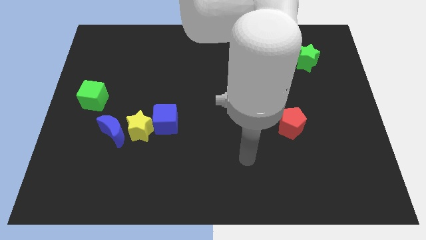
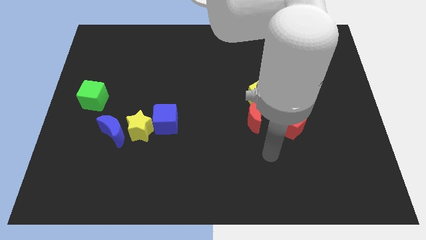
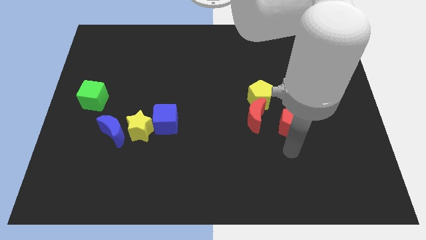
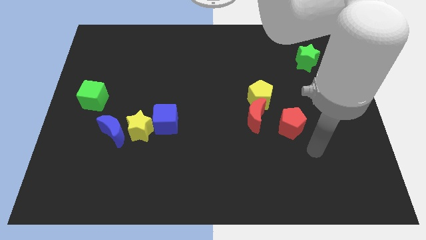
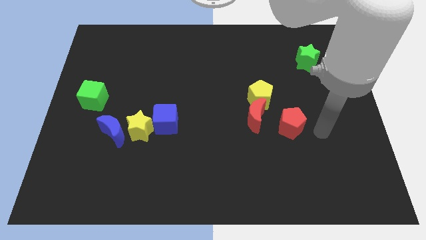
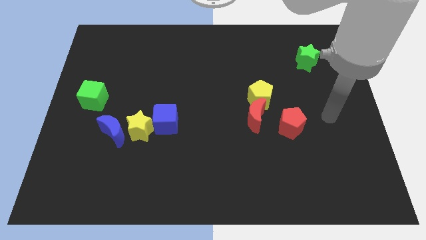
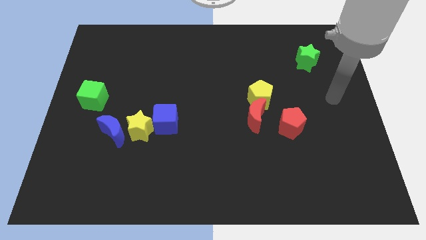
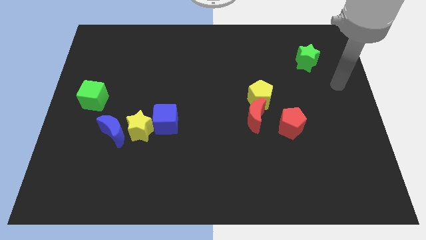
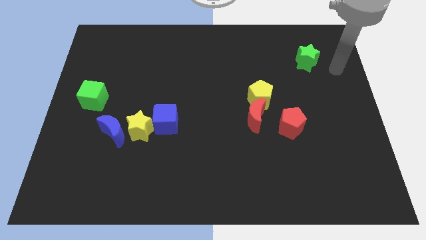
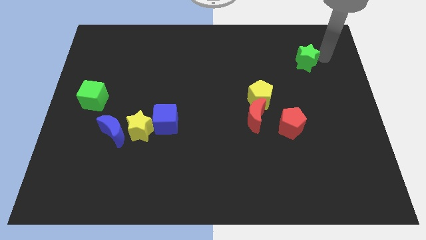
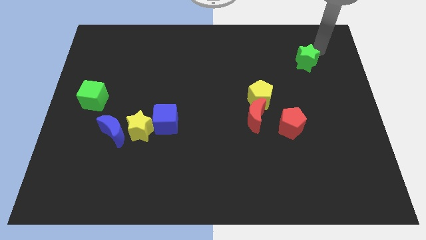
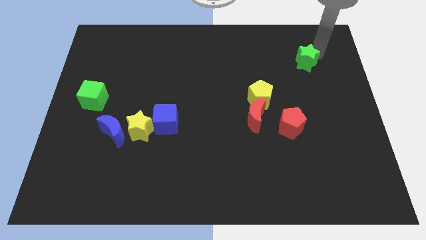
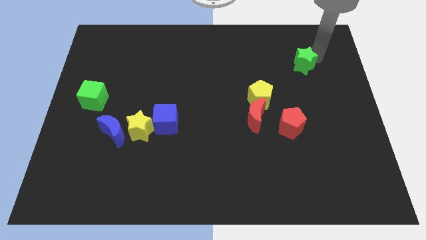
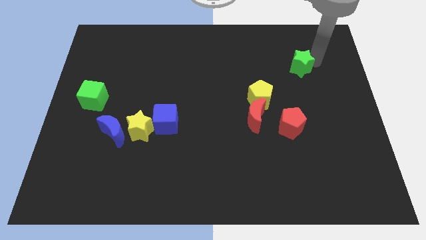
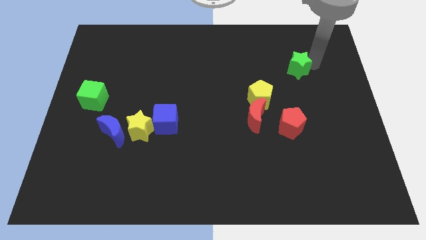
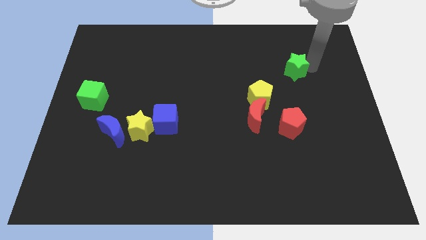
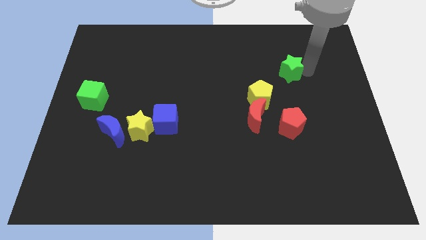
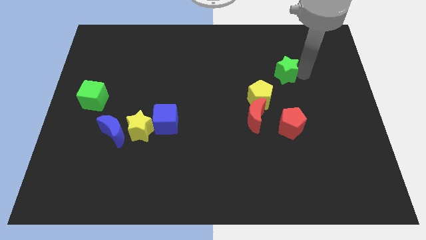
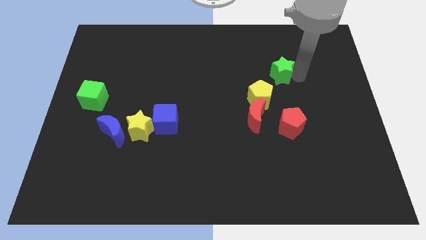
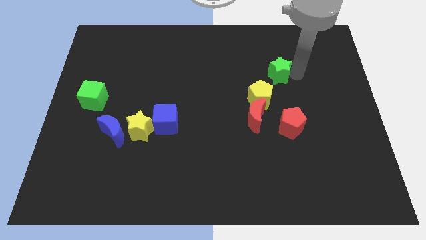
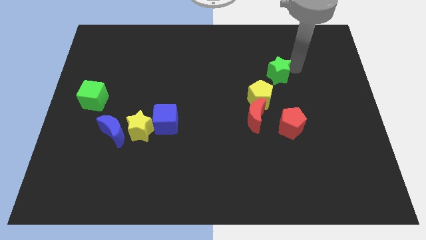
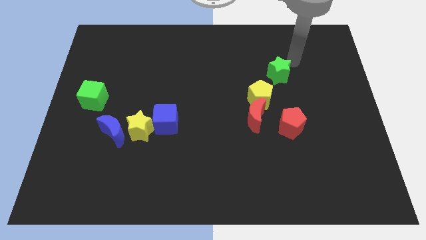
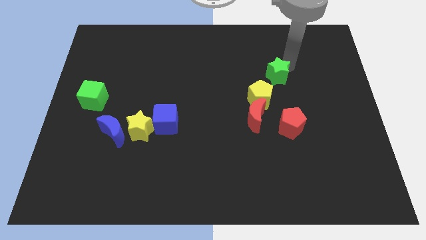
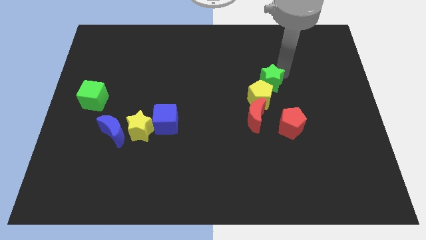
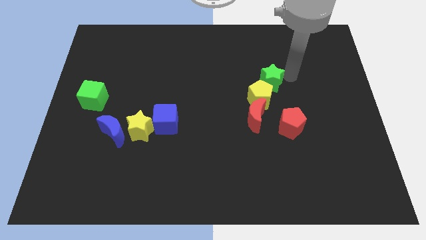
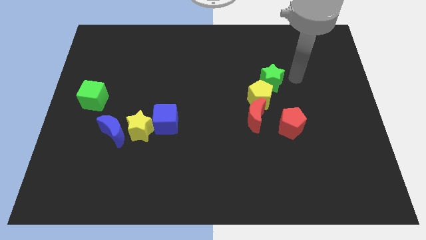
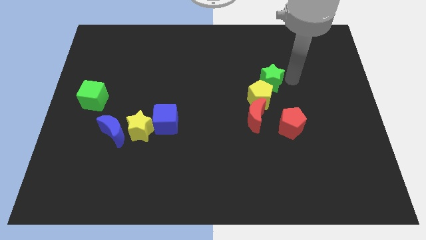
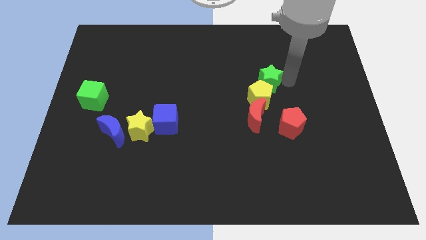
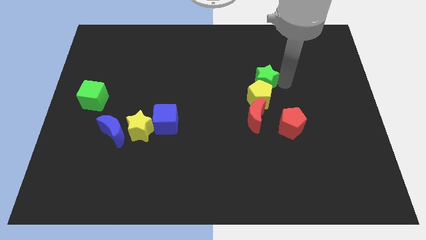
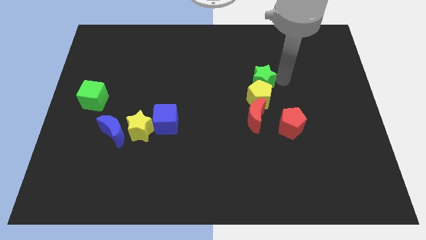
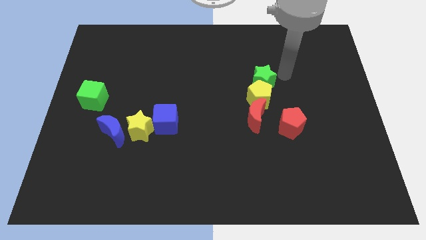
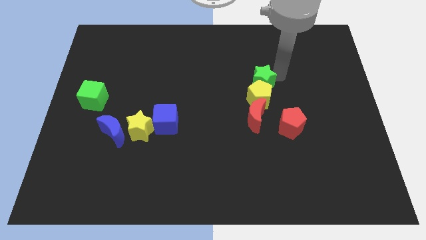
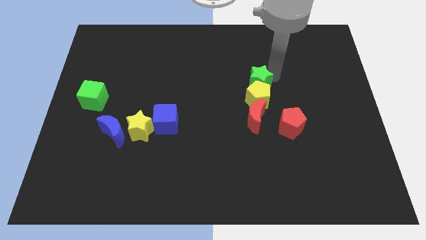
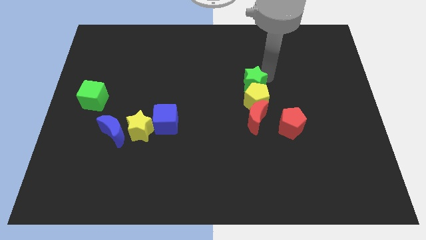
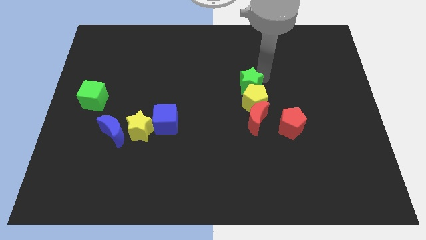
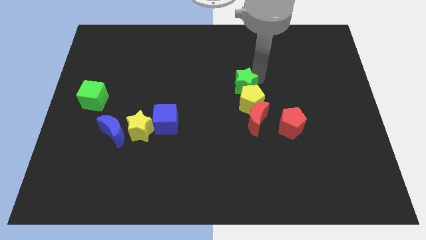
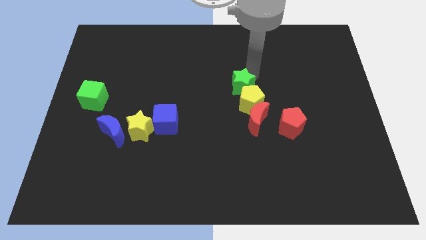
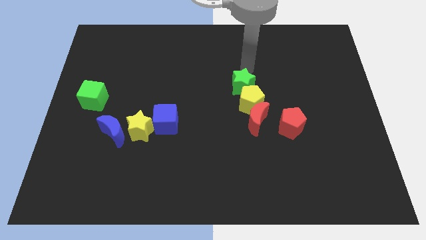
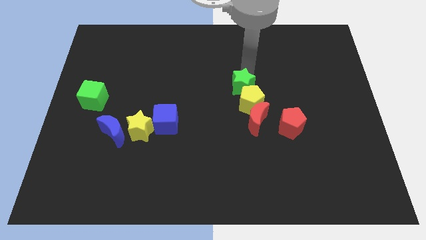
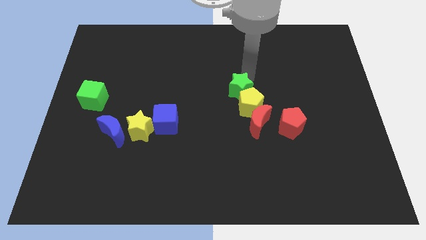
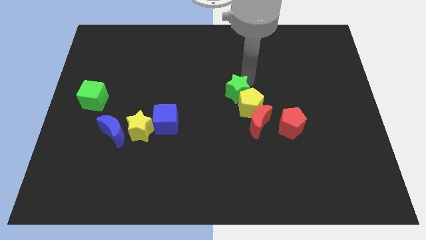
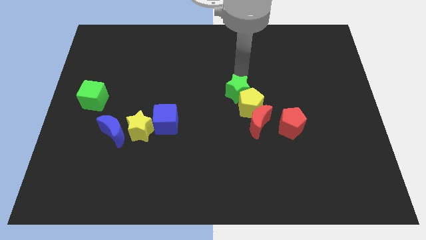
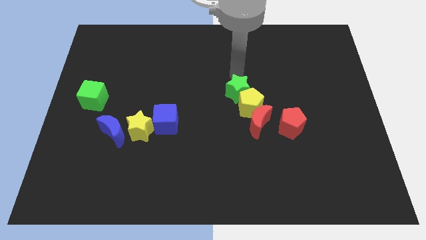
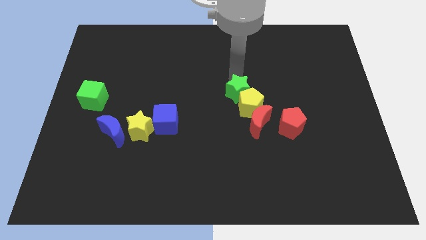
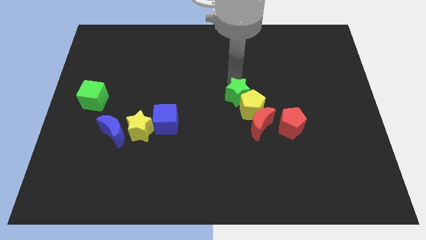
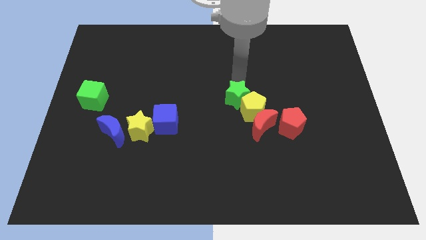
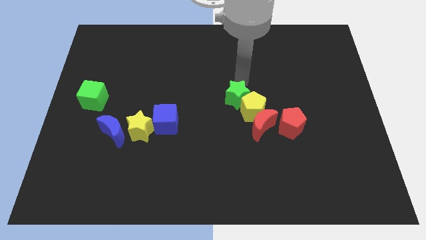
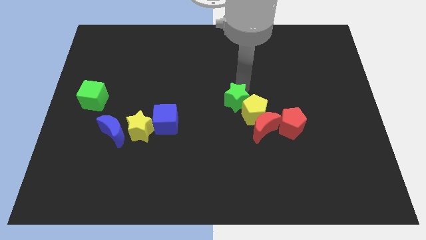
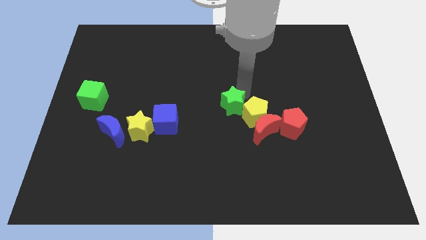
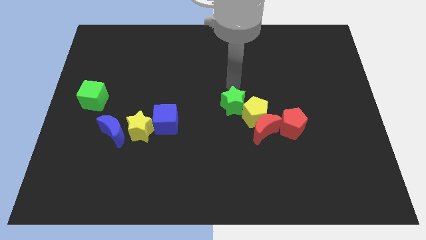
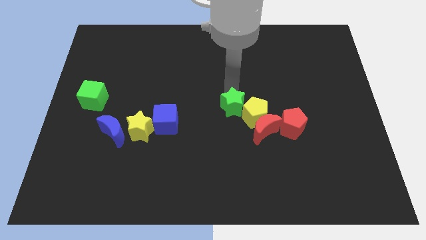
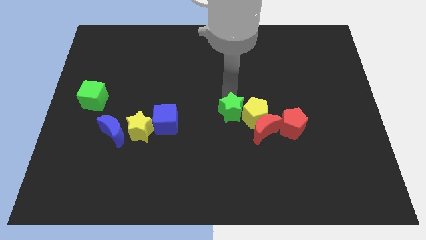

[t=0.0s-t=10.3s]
slide the green star to the bottom left of the yellow pentagon

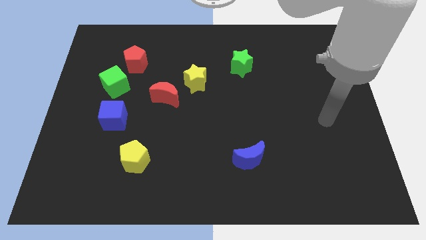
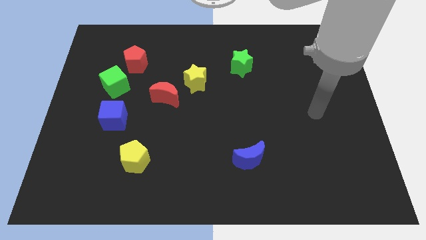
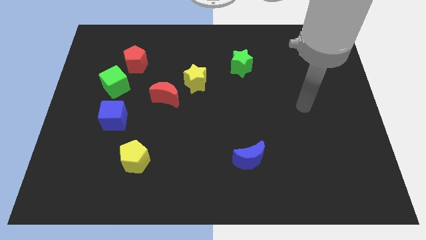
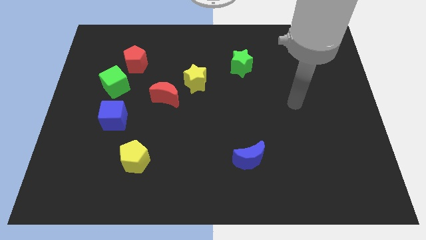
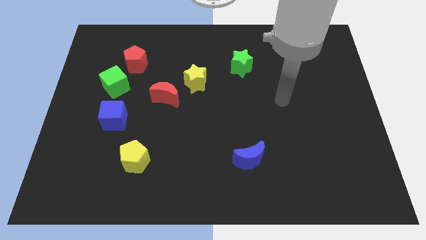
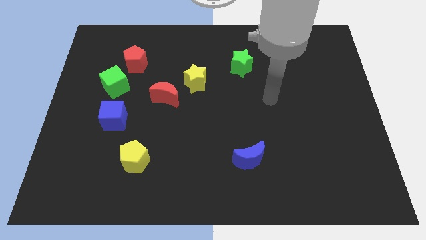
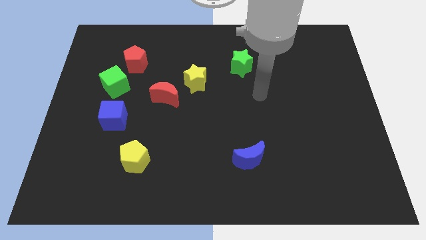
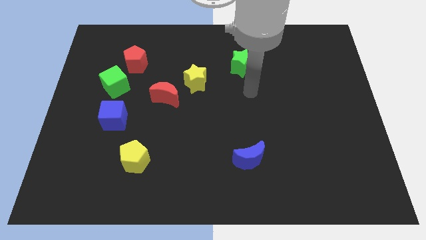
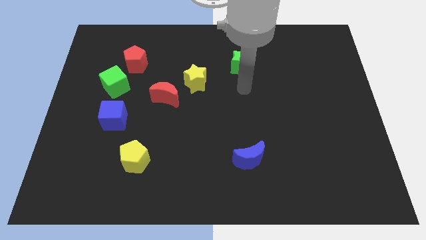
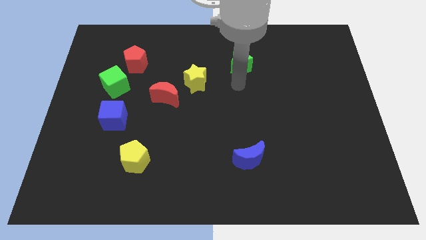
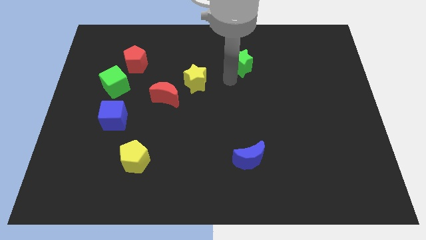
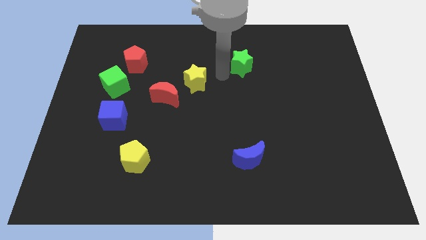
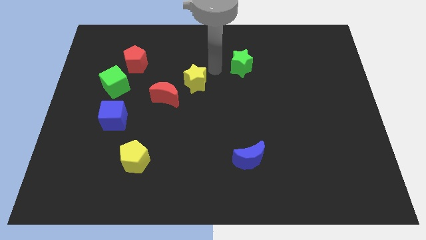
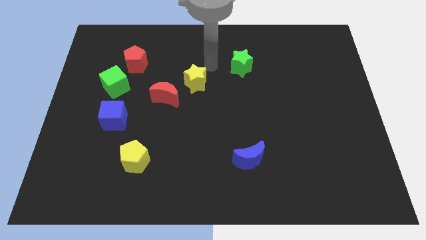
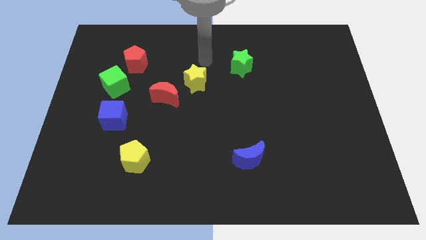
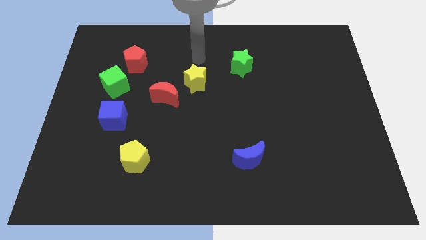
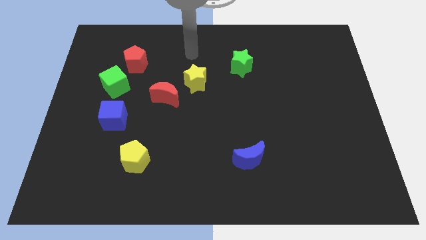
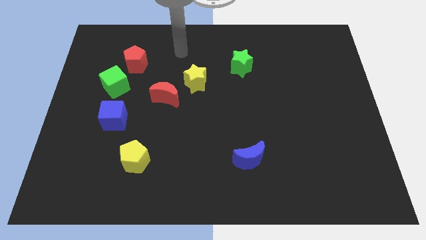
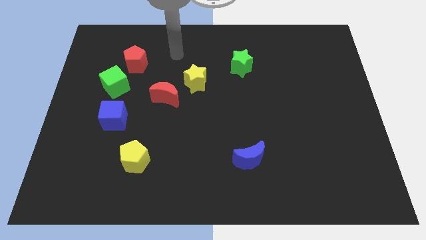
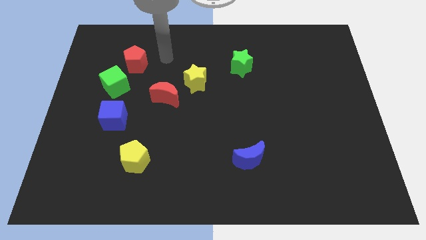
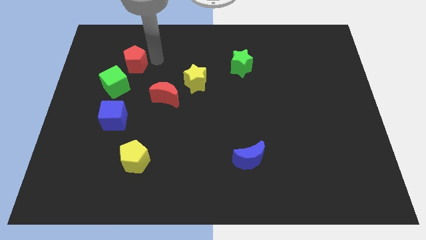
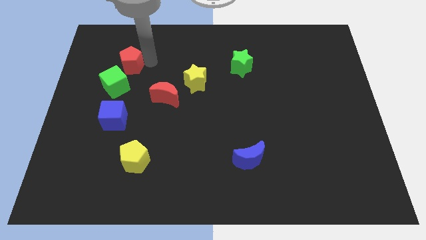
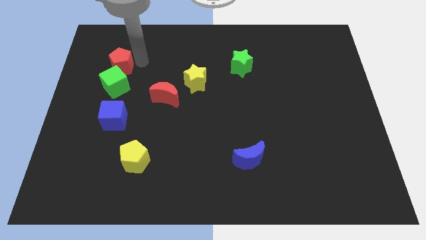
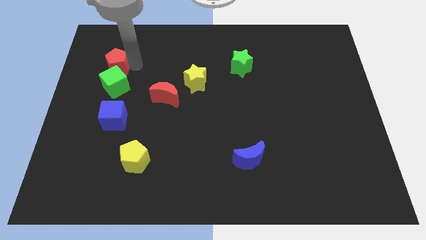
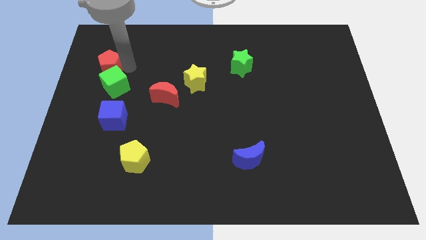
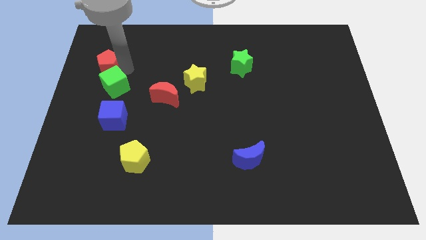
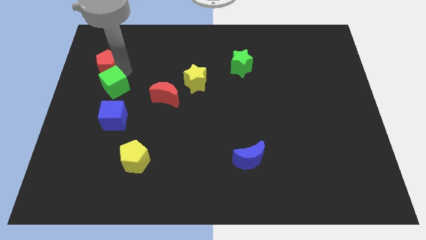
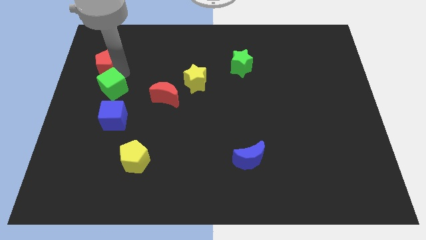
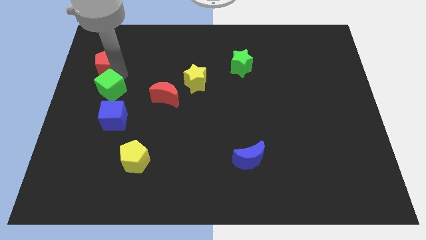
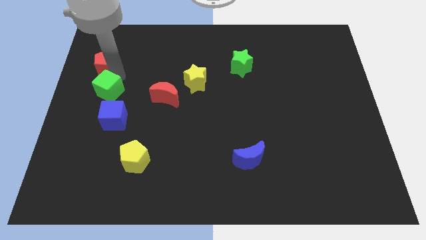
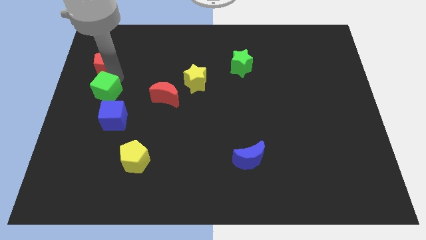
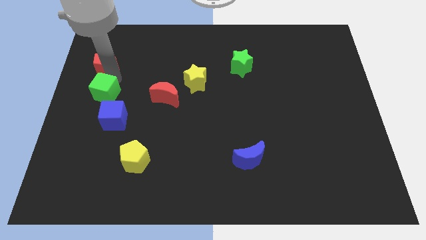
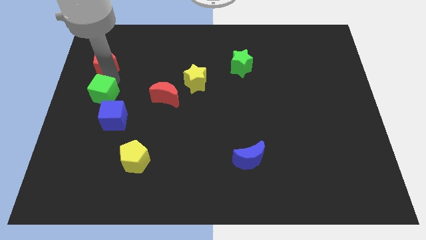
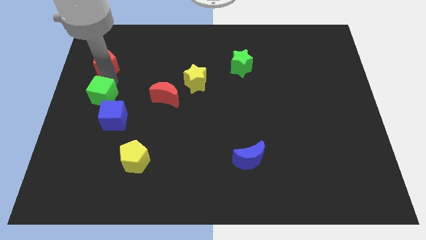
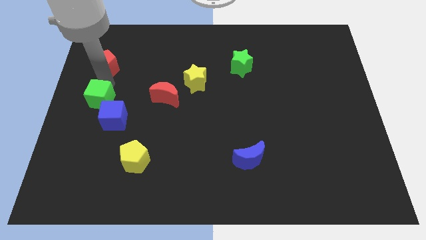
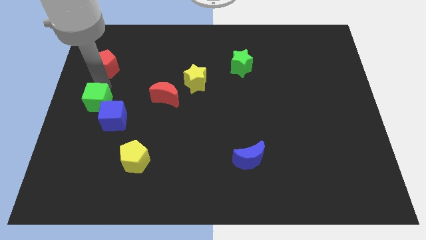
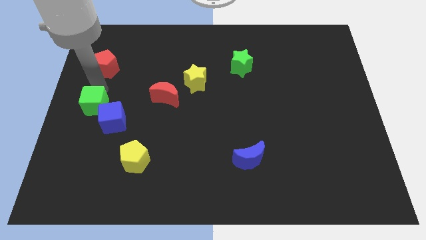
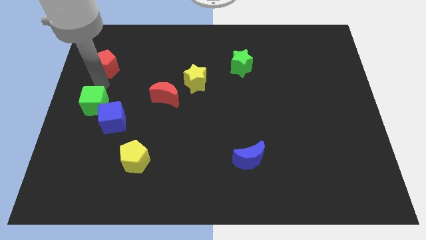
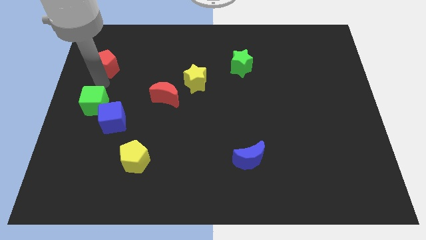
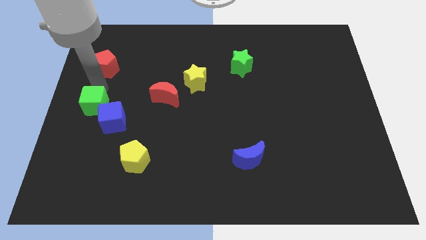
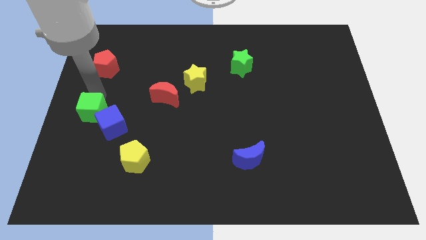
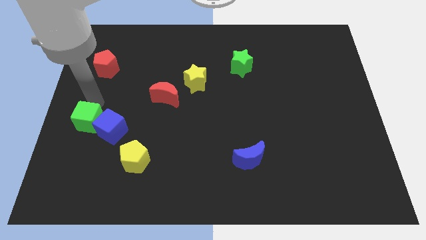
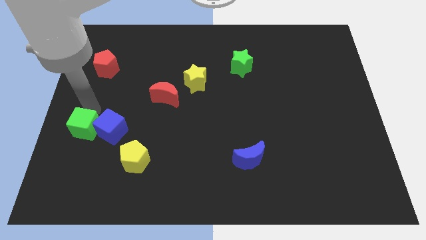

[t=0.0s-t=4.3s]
slide the green cube diagonally down and to the left of the blue cube
